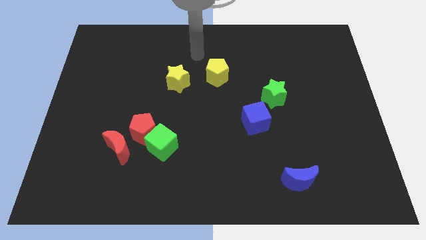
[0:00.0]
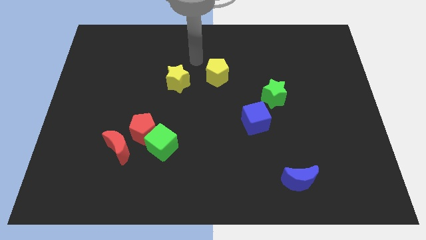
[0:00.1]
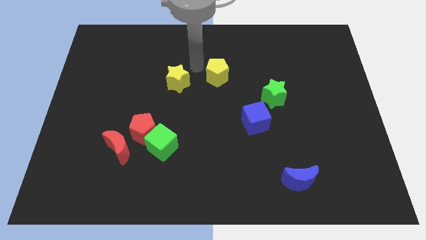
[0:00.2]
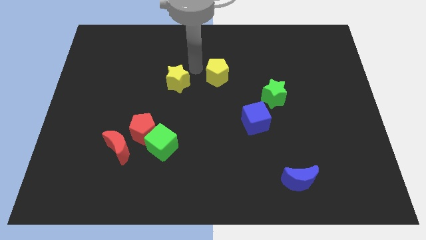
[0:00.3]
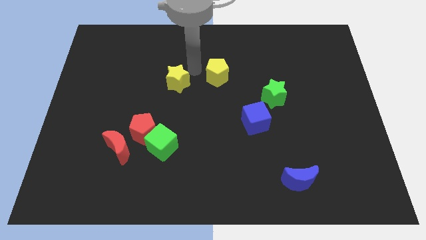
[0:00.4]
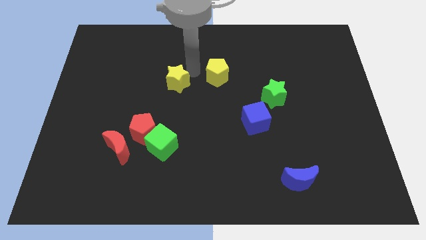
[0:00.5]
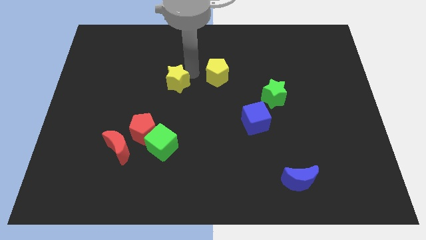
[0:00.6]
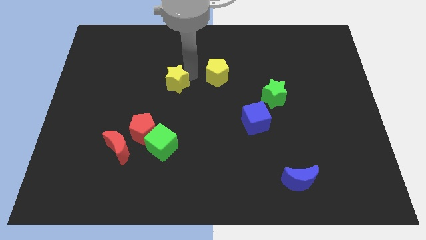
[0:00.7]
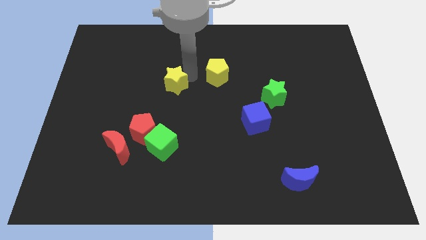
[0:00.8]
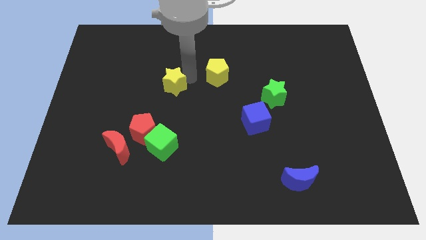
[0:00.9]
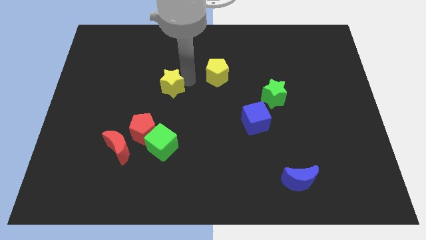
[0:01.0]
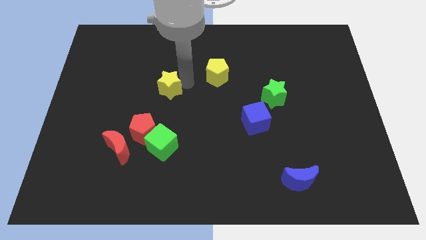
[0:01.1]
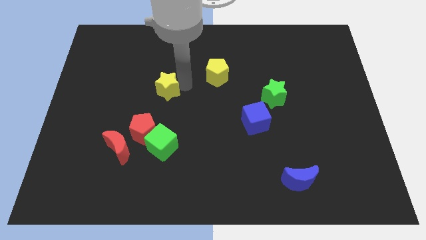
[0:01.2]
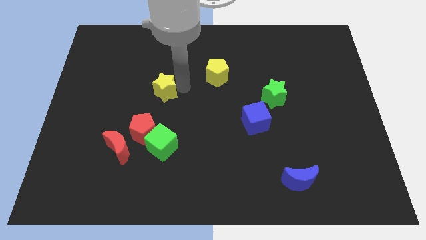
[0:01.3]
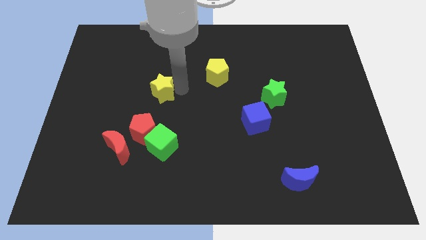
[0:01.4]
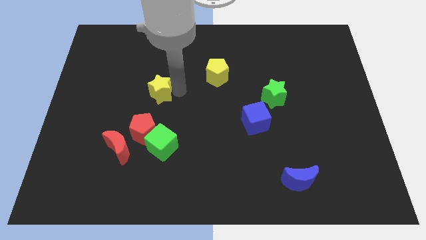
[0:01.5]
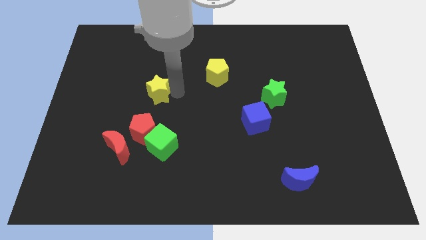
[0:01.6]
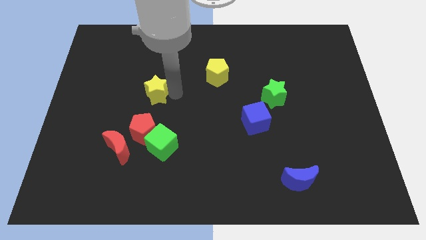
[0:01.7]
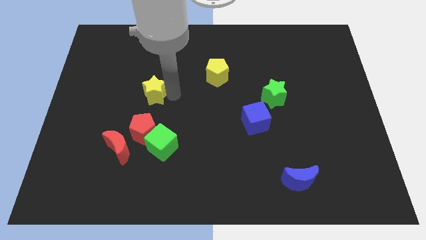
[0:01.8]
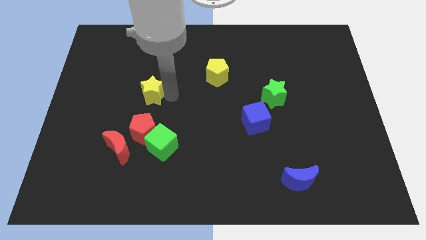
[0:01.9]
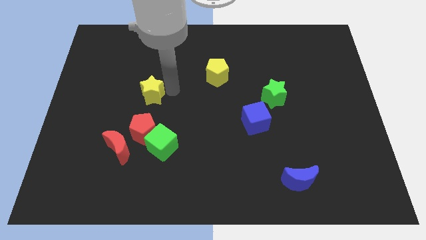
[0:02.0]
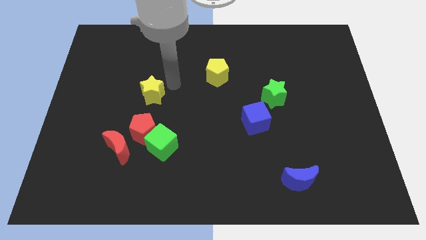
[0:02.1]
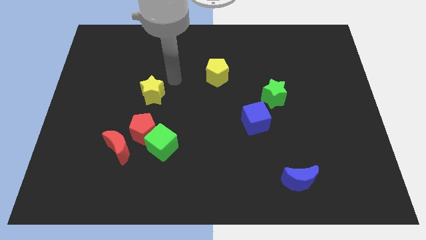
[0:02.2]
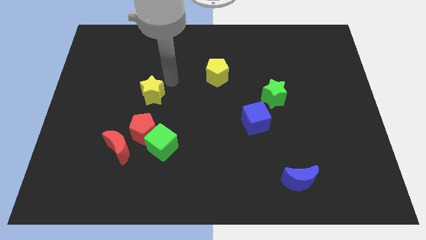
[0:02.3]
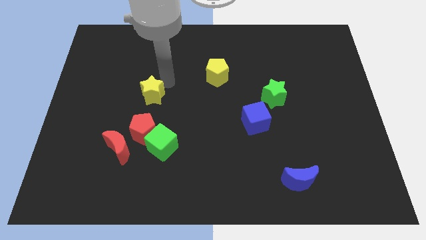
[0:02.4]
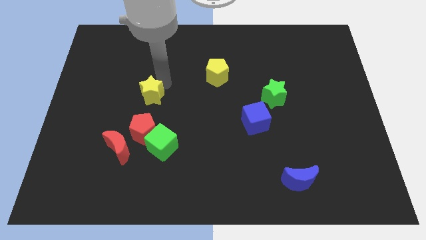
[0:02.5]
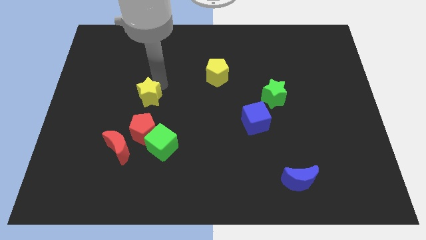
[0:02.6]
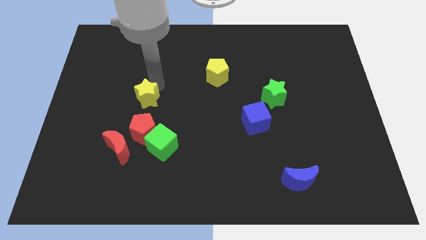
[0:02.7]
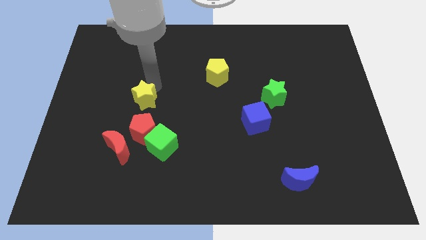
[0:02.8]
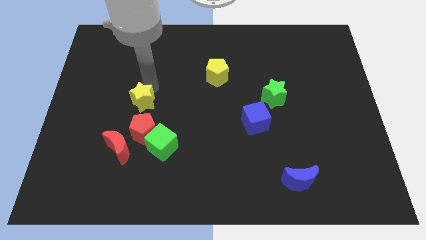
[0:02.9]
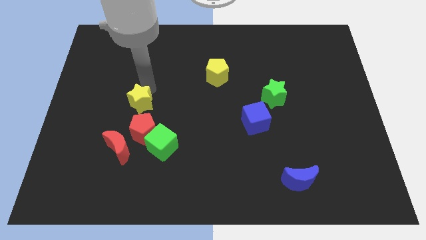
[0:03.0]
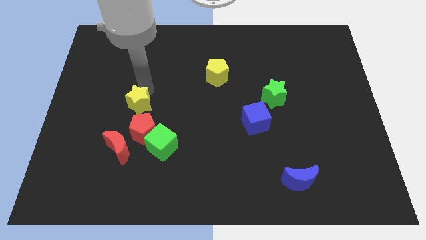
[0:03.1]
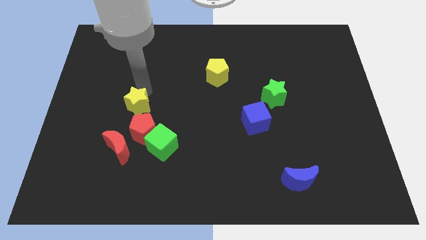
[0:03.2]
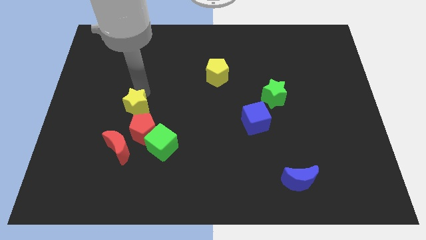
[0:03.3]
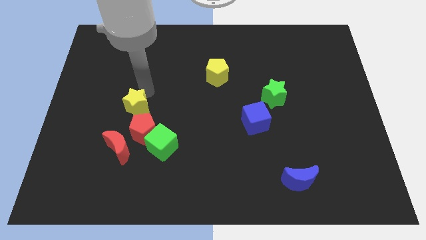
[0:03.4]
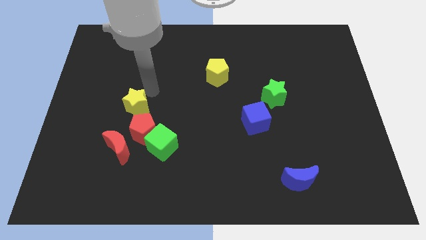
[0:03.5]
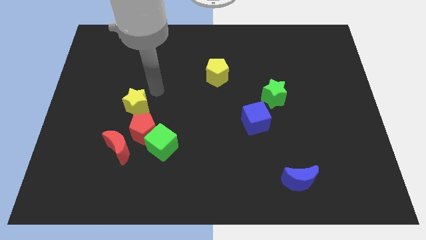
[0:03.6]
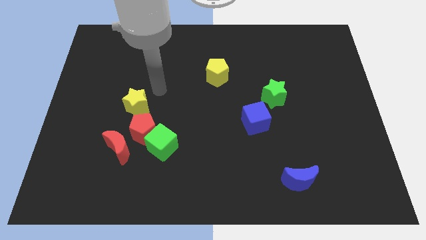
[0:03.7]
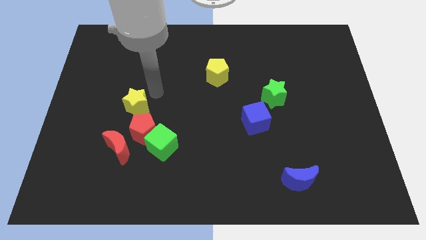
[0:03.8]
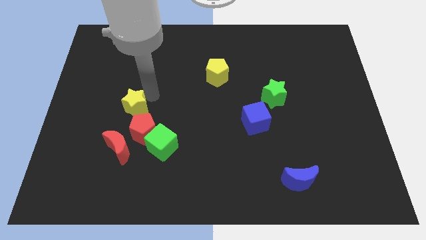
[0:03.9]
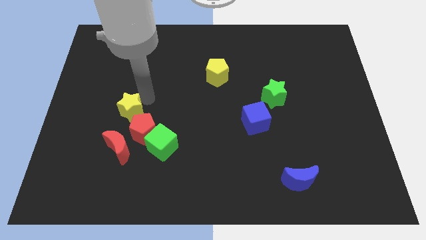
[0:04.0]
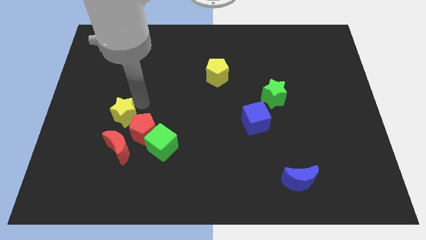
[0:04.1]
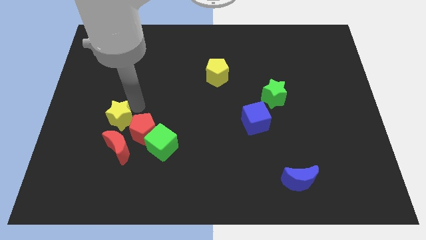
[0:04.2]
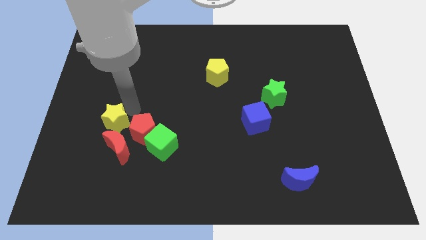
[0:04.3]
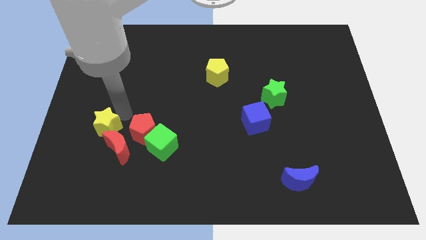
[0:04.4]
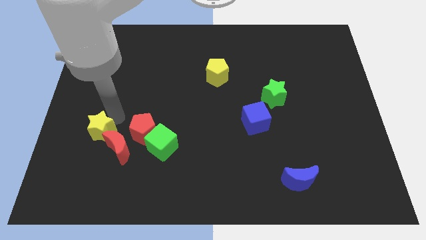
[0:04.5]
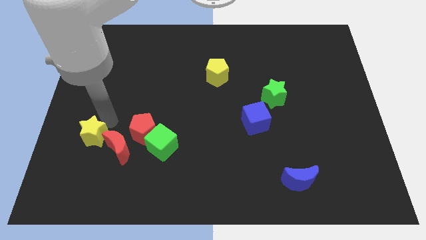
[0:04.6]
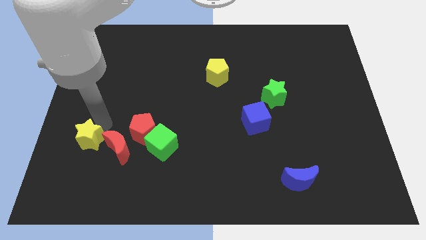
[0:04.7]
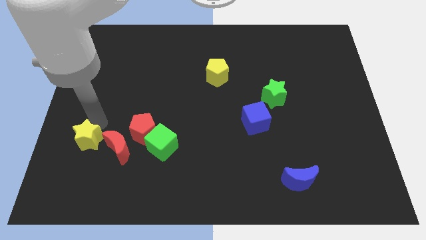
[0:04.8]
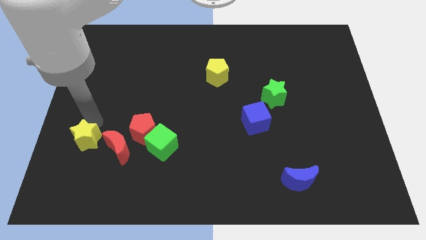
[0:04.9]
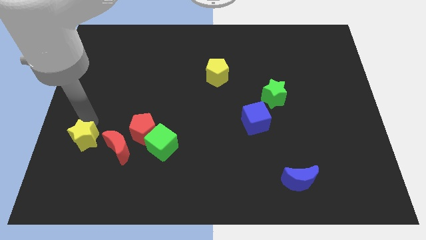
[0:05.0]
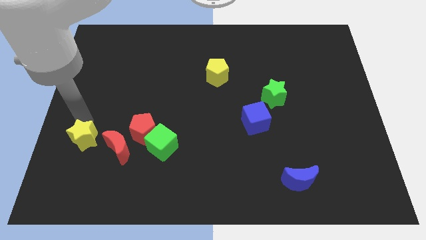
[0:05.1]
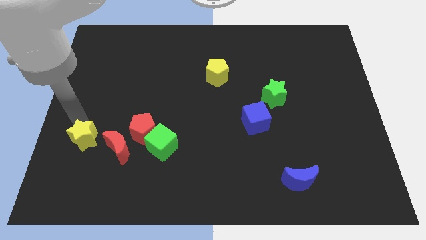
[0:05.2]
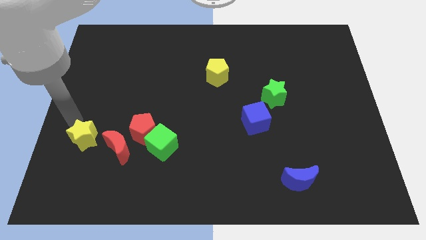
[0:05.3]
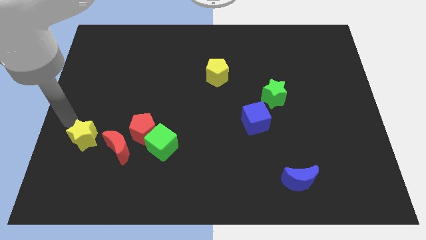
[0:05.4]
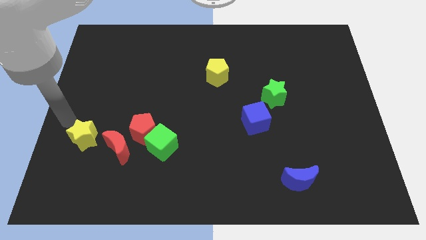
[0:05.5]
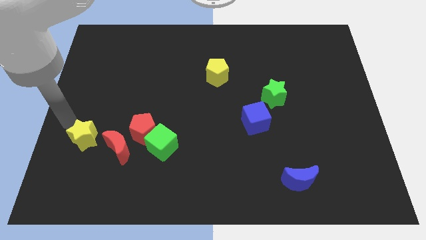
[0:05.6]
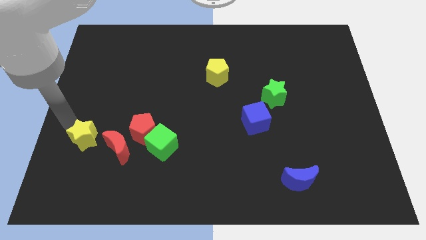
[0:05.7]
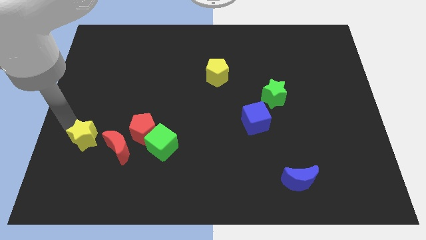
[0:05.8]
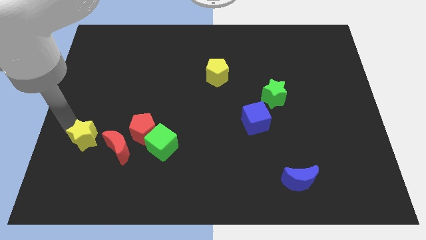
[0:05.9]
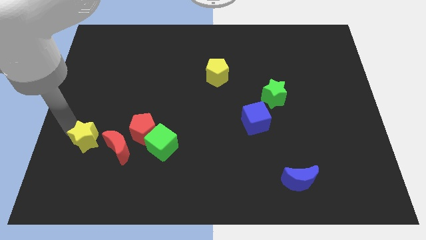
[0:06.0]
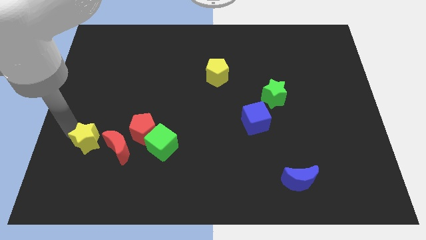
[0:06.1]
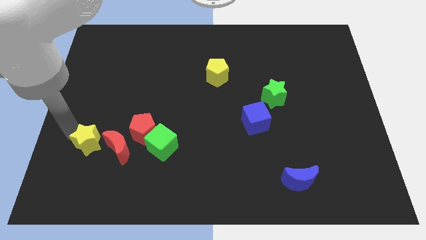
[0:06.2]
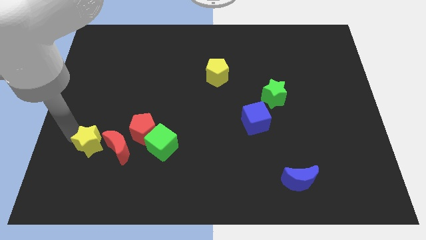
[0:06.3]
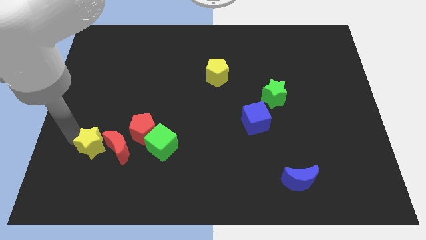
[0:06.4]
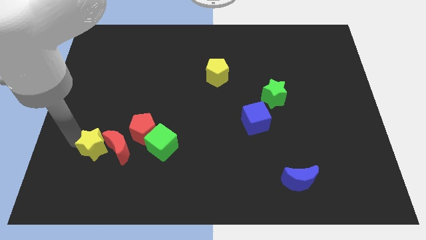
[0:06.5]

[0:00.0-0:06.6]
push the yellow star to the bottom left of the red pentagon

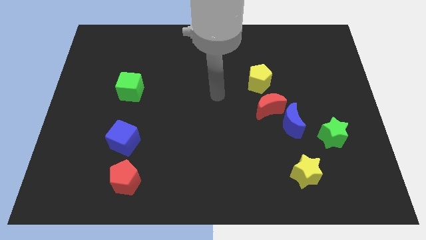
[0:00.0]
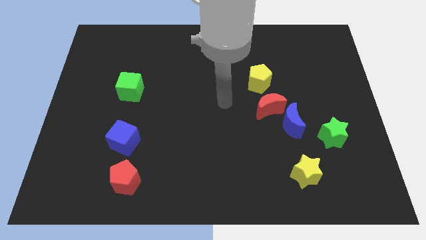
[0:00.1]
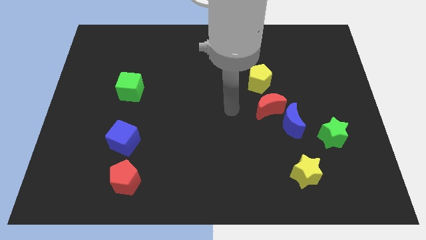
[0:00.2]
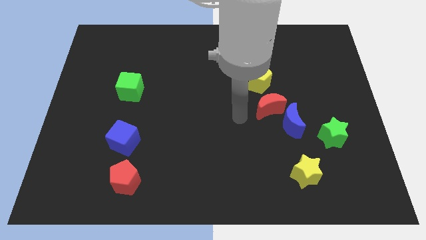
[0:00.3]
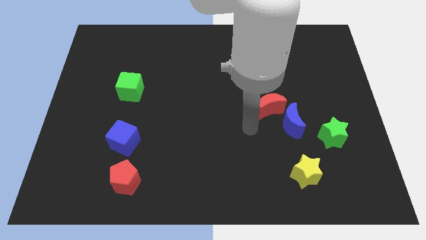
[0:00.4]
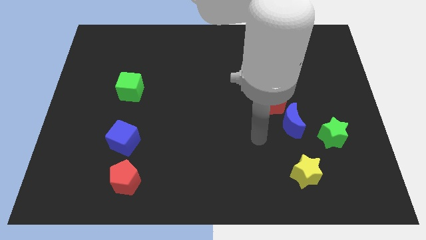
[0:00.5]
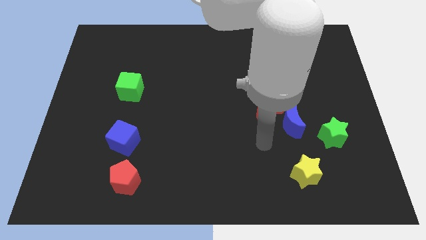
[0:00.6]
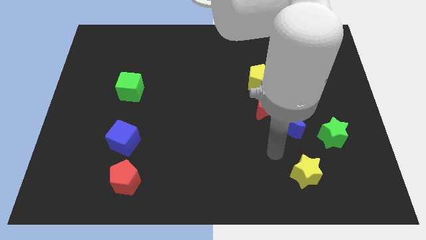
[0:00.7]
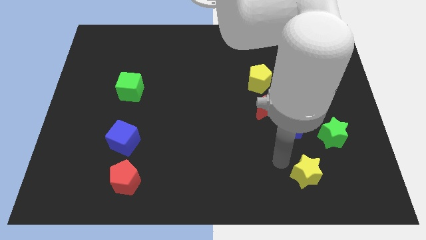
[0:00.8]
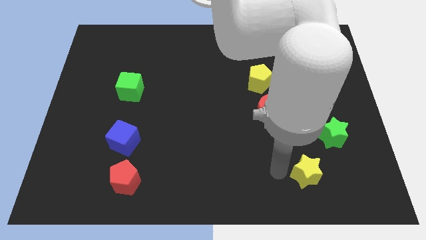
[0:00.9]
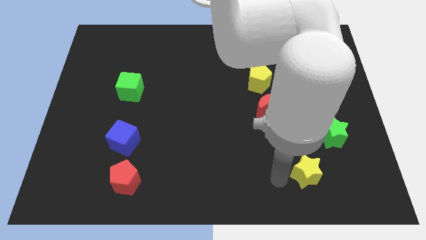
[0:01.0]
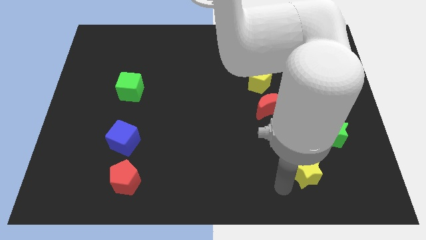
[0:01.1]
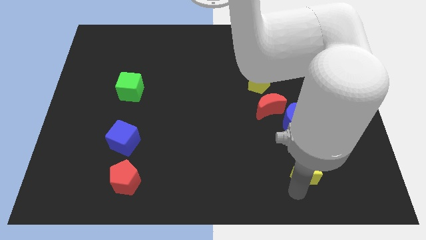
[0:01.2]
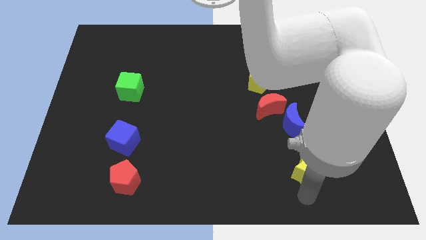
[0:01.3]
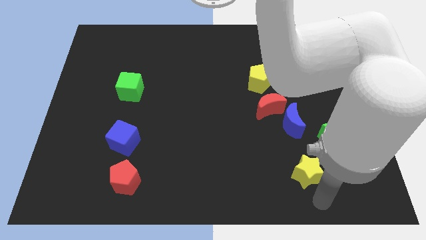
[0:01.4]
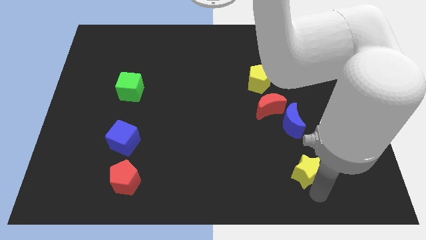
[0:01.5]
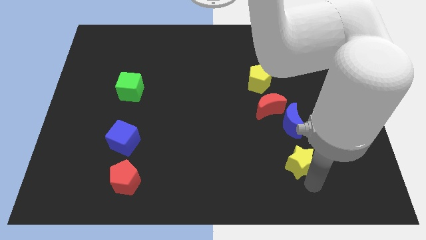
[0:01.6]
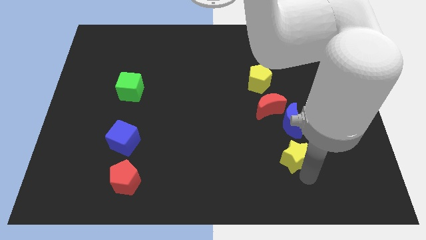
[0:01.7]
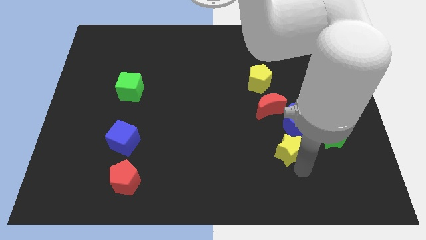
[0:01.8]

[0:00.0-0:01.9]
move the yellow star to the left of the green star
